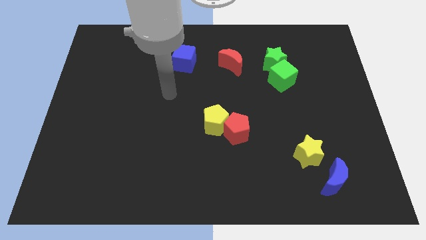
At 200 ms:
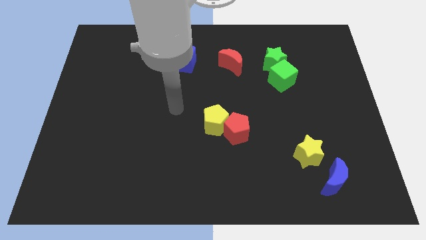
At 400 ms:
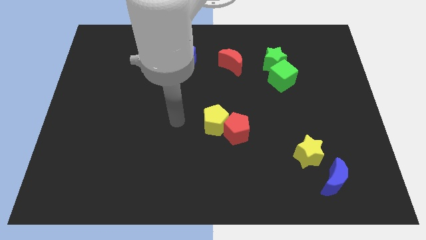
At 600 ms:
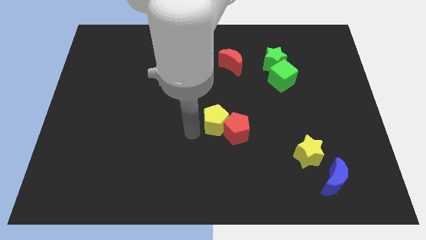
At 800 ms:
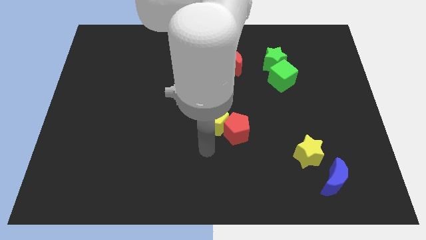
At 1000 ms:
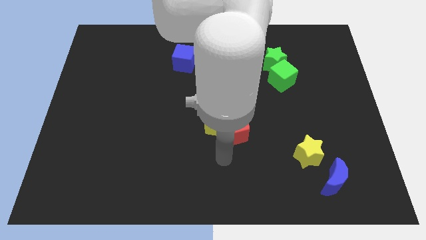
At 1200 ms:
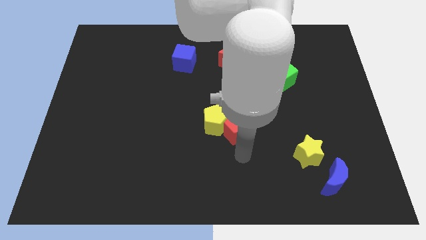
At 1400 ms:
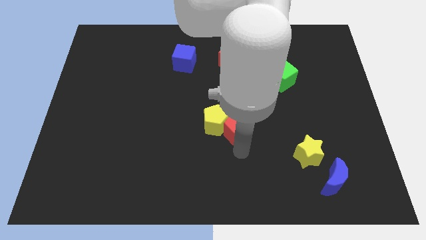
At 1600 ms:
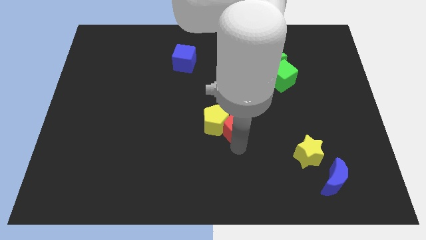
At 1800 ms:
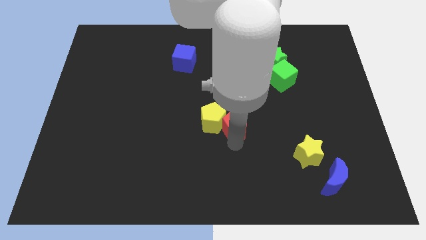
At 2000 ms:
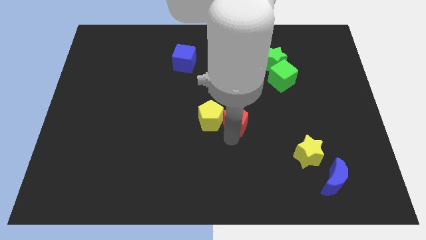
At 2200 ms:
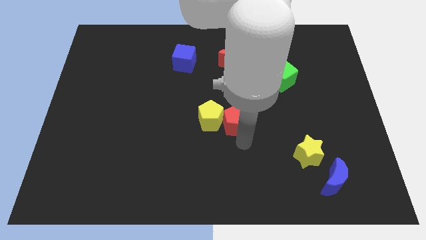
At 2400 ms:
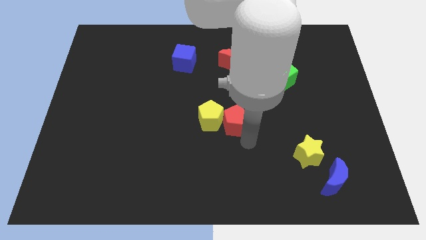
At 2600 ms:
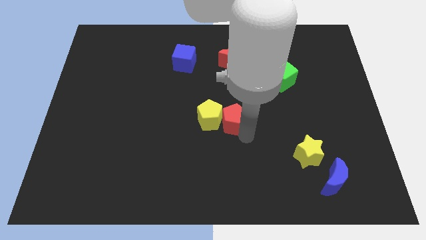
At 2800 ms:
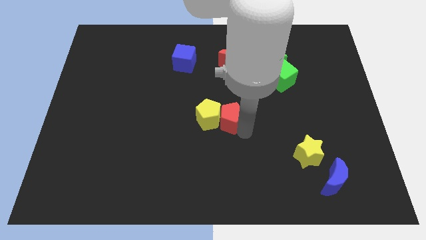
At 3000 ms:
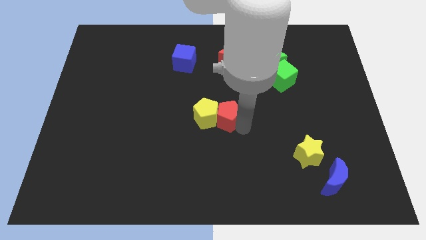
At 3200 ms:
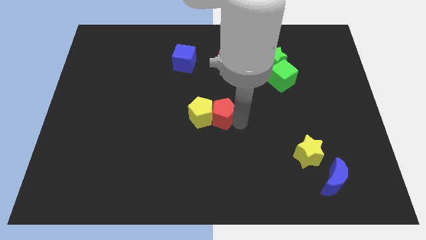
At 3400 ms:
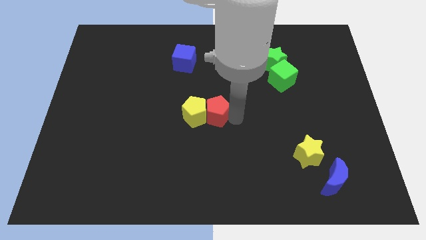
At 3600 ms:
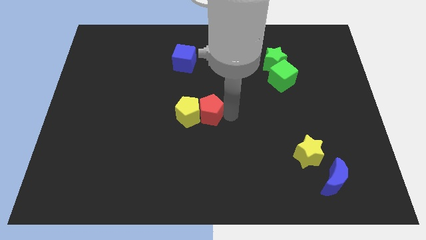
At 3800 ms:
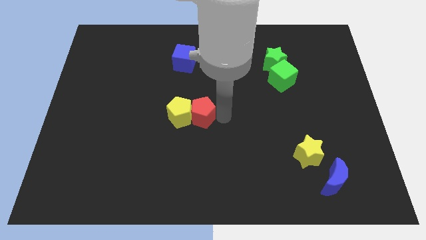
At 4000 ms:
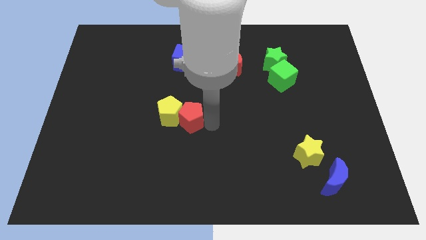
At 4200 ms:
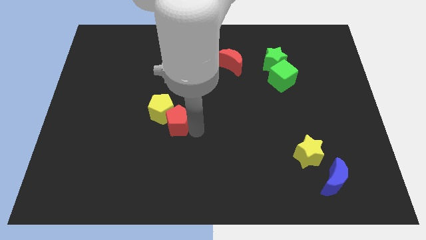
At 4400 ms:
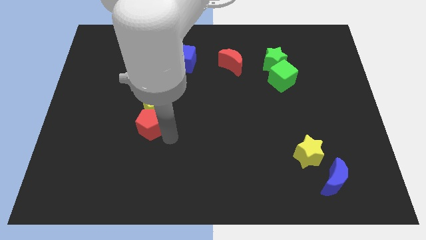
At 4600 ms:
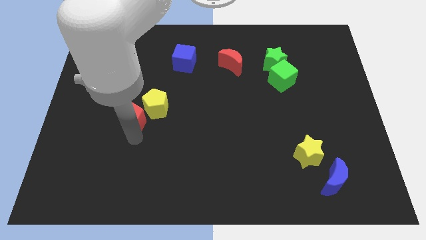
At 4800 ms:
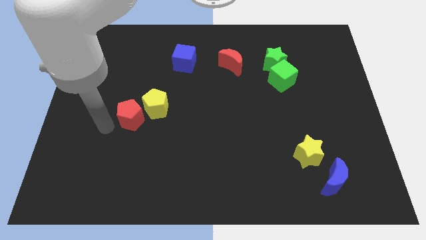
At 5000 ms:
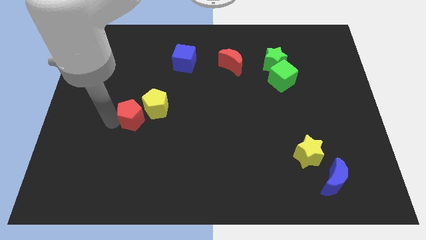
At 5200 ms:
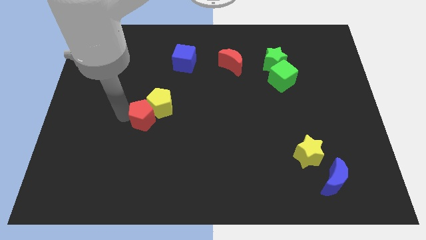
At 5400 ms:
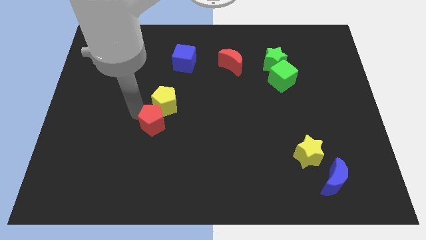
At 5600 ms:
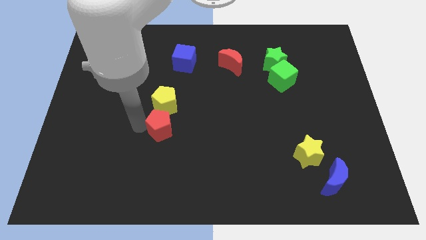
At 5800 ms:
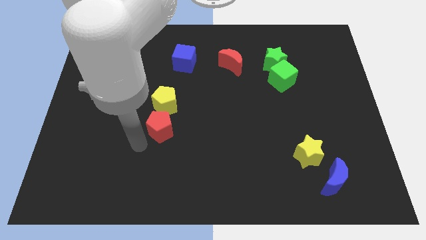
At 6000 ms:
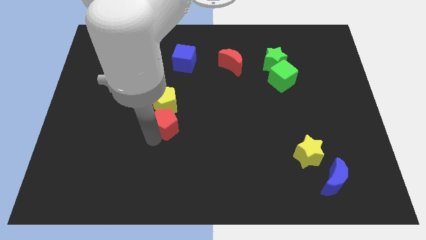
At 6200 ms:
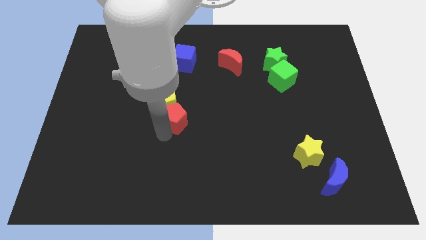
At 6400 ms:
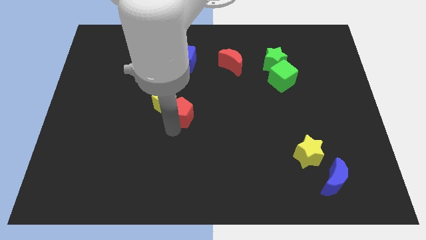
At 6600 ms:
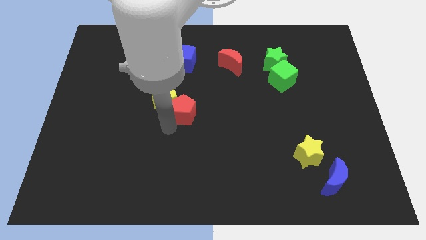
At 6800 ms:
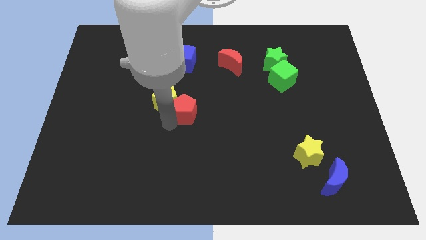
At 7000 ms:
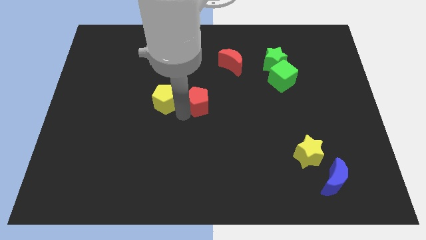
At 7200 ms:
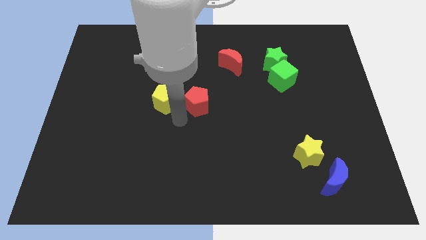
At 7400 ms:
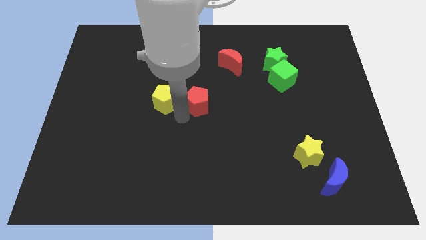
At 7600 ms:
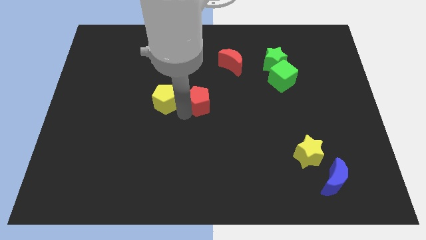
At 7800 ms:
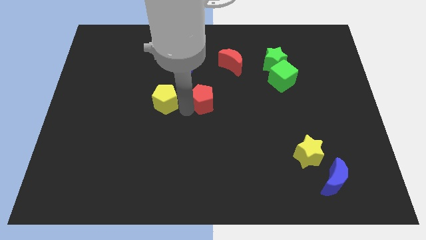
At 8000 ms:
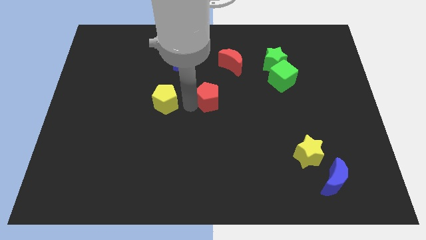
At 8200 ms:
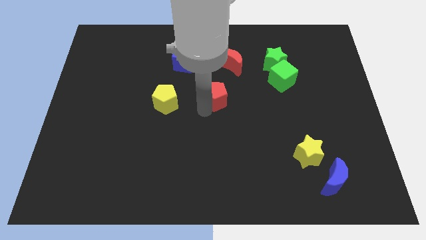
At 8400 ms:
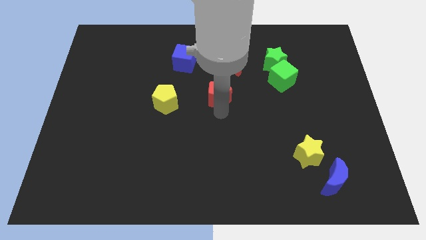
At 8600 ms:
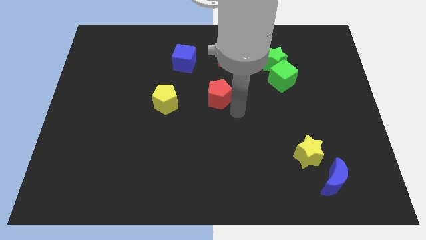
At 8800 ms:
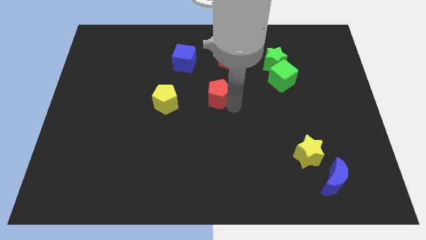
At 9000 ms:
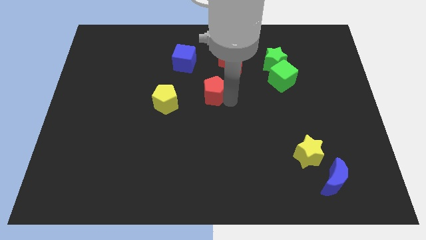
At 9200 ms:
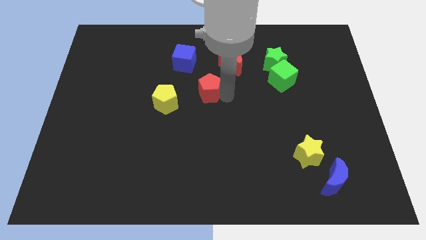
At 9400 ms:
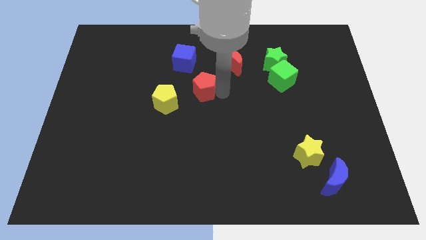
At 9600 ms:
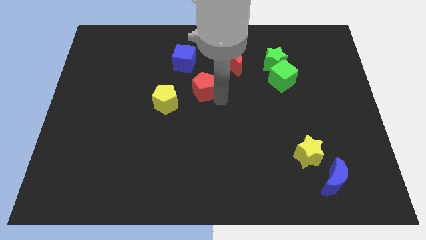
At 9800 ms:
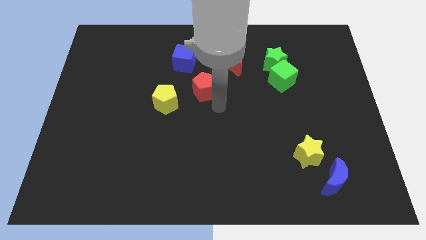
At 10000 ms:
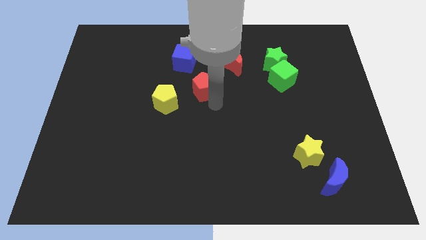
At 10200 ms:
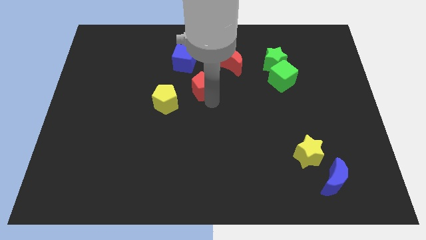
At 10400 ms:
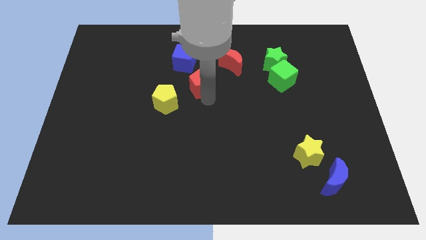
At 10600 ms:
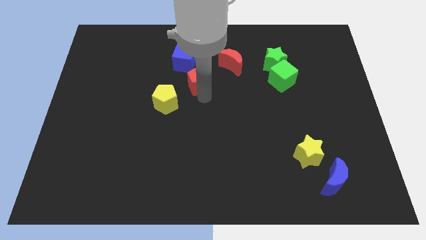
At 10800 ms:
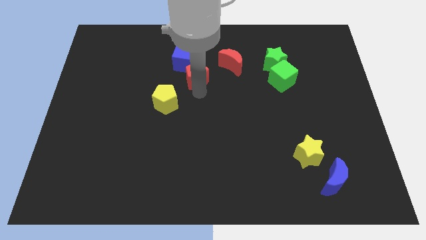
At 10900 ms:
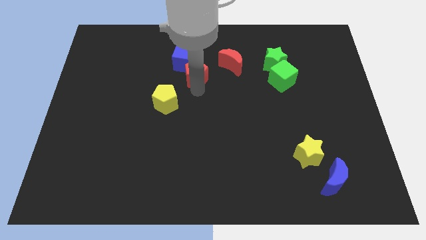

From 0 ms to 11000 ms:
slide the red pentagon next to the blue cube

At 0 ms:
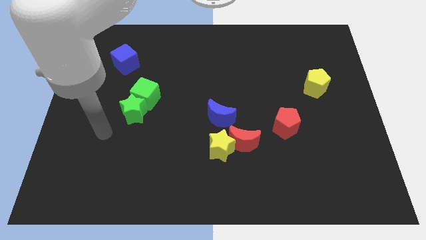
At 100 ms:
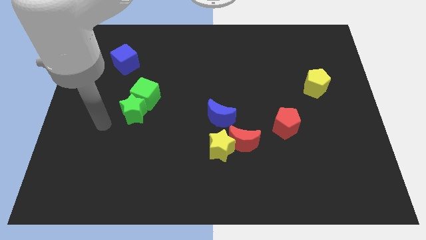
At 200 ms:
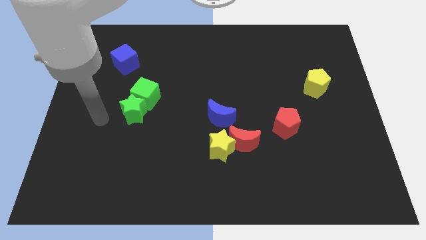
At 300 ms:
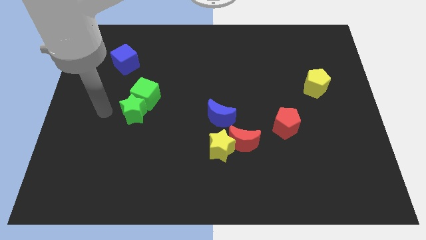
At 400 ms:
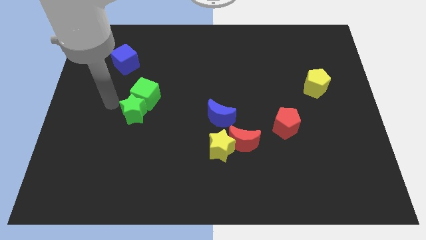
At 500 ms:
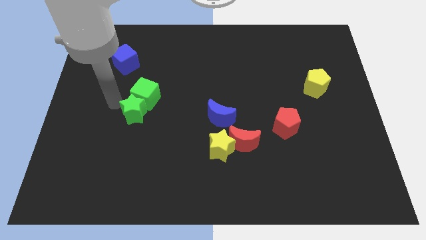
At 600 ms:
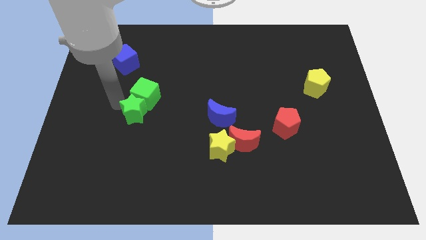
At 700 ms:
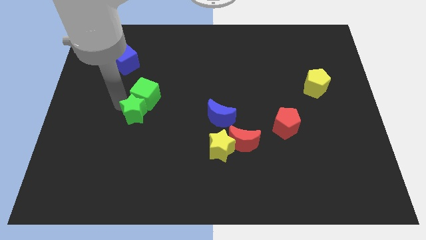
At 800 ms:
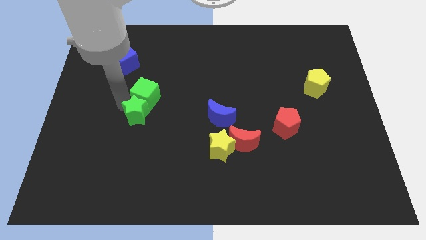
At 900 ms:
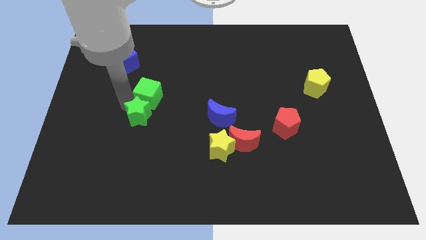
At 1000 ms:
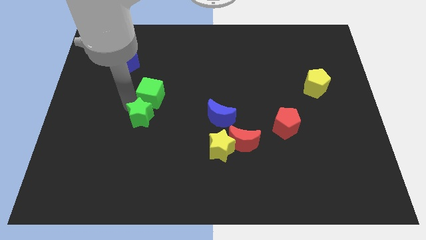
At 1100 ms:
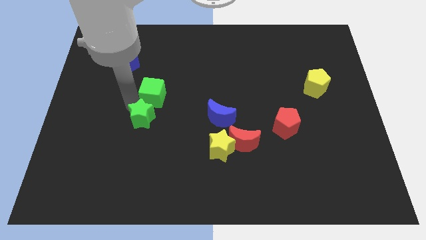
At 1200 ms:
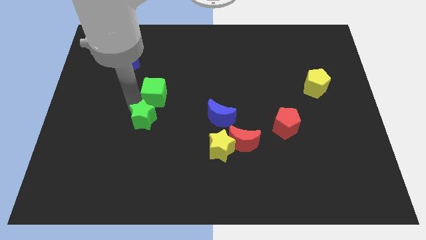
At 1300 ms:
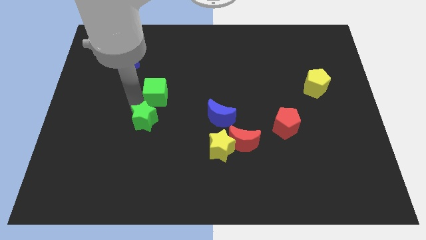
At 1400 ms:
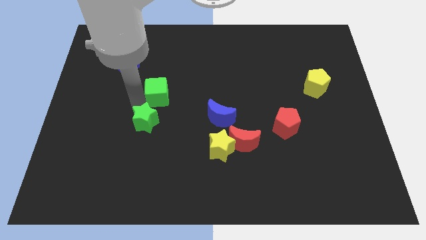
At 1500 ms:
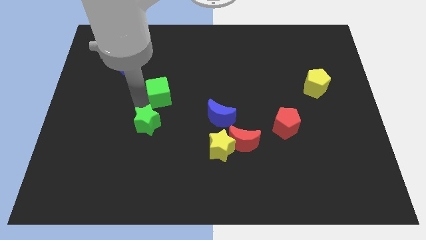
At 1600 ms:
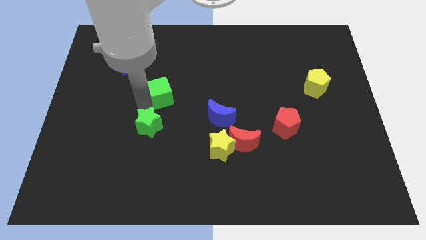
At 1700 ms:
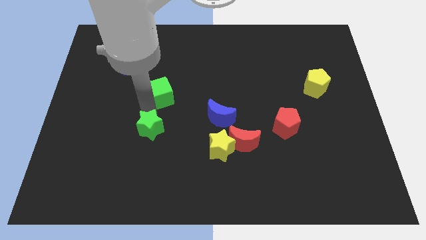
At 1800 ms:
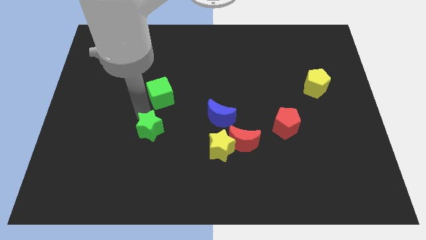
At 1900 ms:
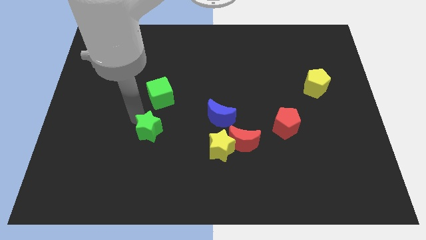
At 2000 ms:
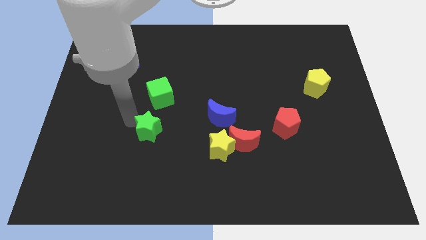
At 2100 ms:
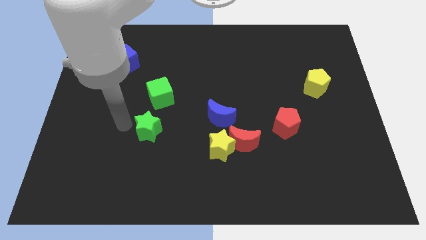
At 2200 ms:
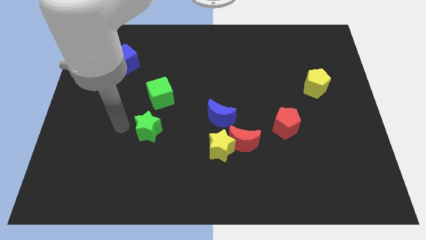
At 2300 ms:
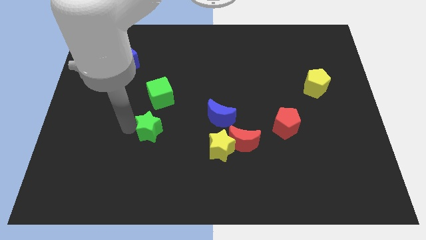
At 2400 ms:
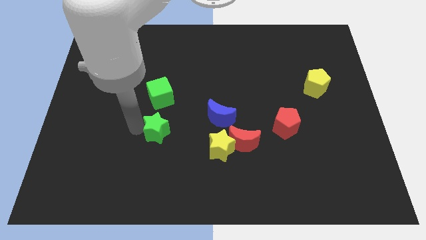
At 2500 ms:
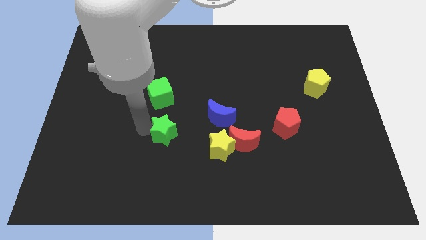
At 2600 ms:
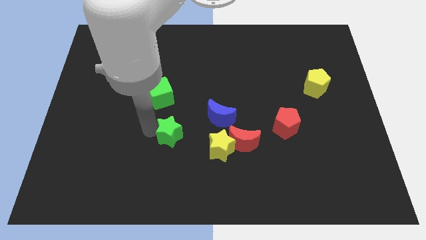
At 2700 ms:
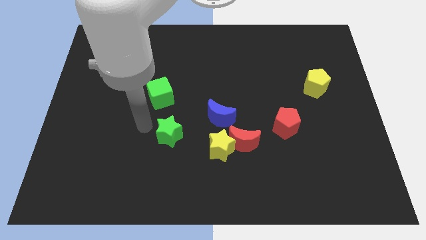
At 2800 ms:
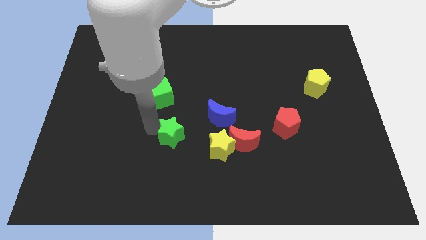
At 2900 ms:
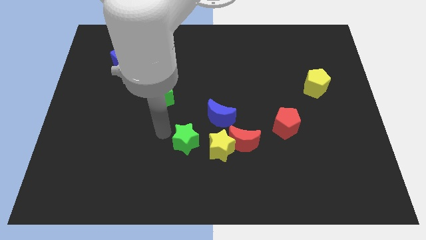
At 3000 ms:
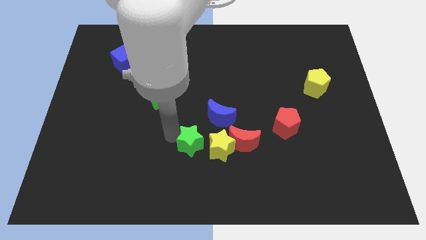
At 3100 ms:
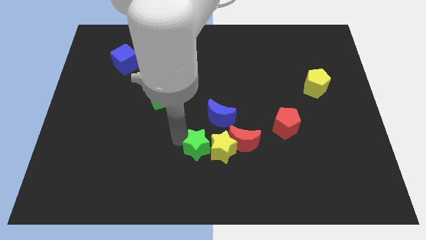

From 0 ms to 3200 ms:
put the green star close to the yellow star
